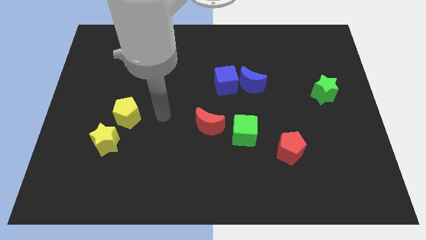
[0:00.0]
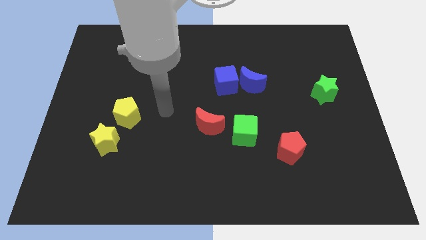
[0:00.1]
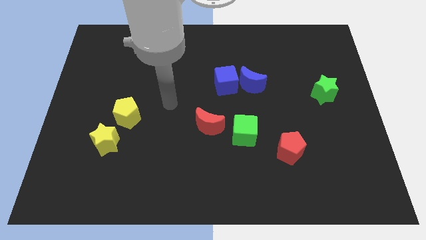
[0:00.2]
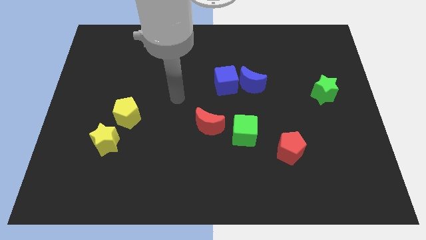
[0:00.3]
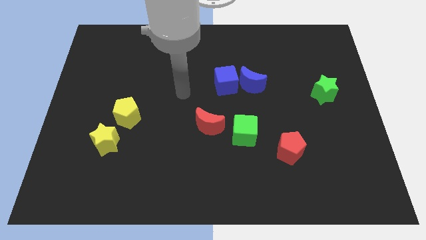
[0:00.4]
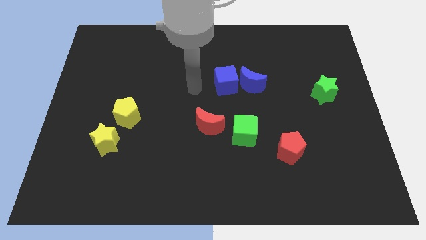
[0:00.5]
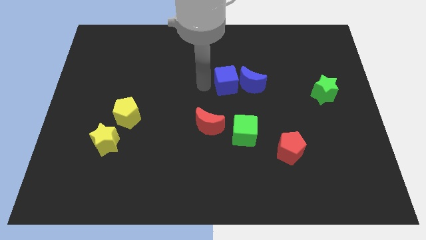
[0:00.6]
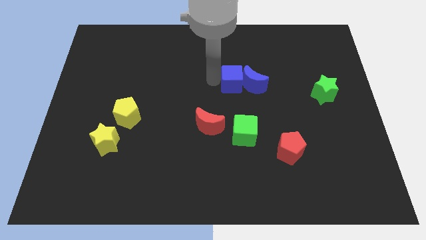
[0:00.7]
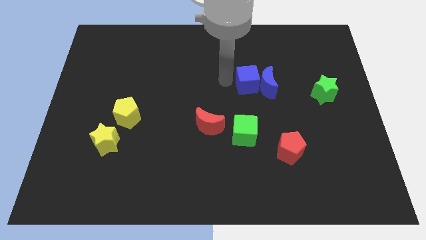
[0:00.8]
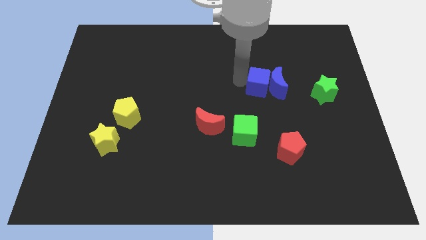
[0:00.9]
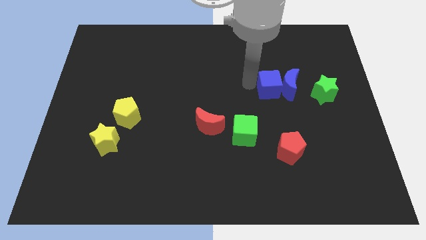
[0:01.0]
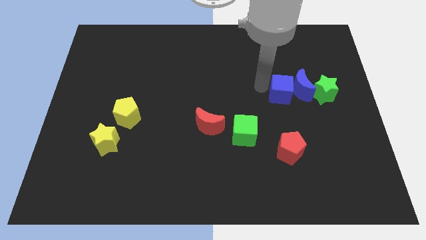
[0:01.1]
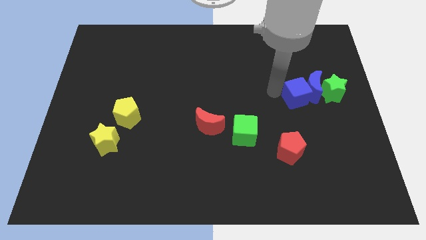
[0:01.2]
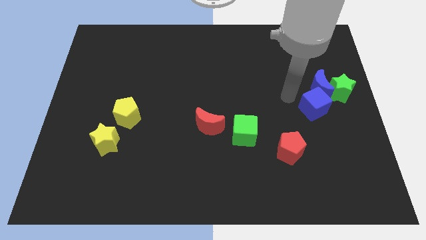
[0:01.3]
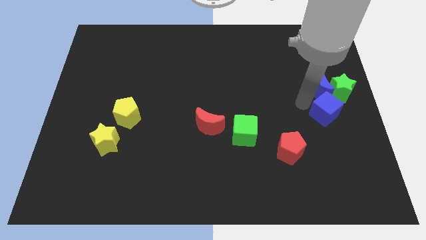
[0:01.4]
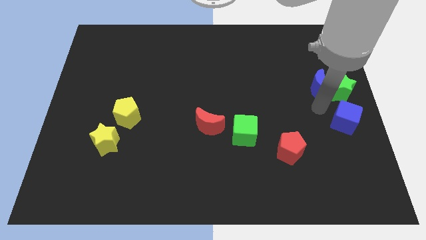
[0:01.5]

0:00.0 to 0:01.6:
separate the blue moon from the blue cube

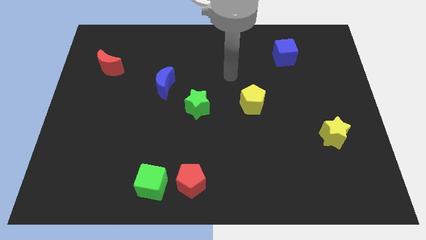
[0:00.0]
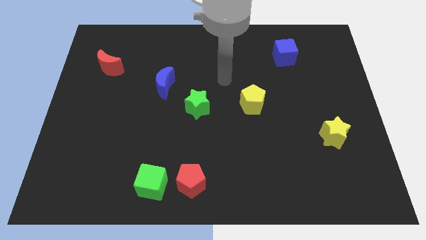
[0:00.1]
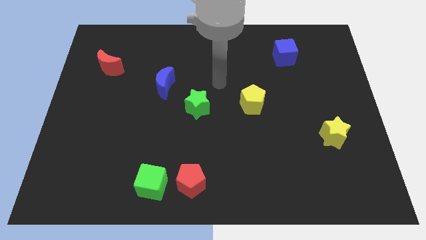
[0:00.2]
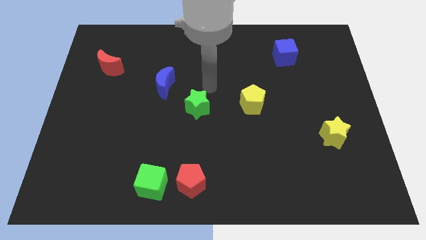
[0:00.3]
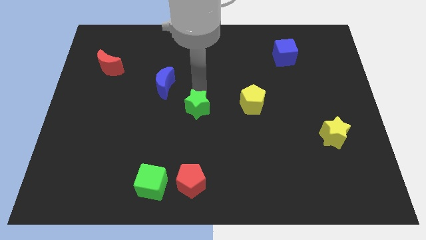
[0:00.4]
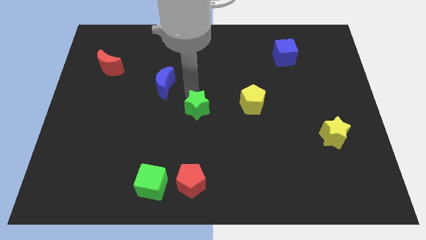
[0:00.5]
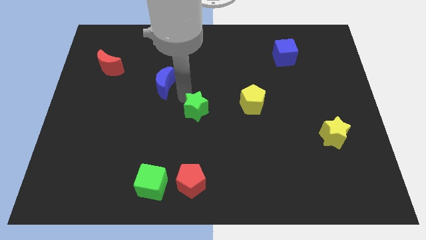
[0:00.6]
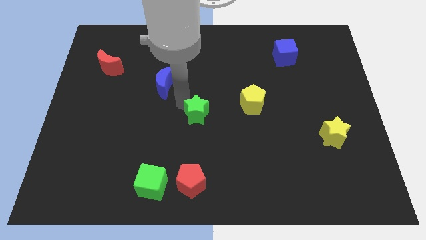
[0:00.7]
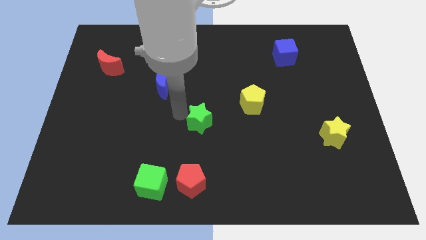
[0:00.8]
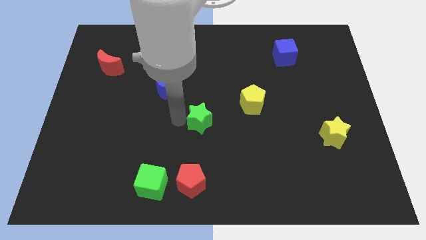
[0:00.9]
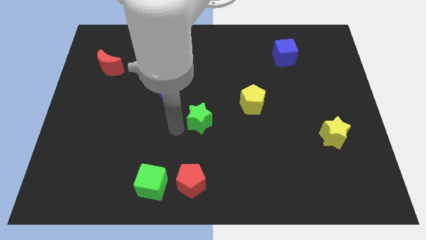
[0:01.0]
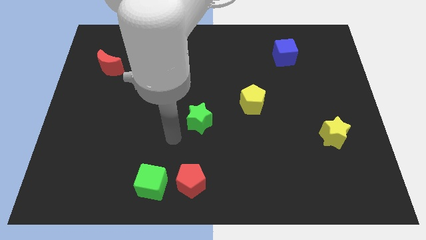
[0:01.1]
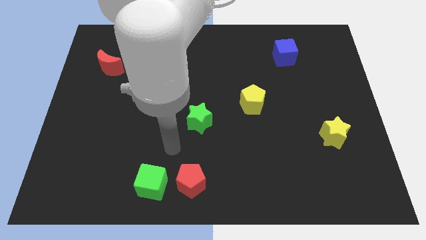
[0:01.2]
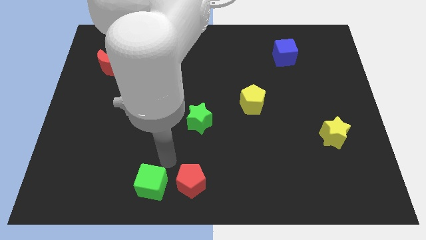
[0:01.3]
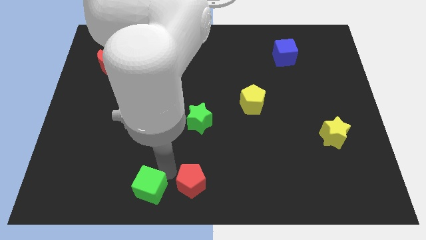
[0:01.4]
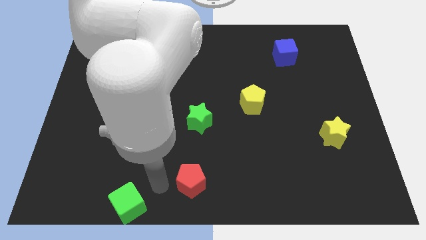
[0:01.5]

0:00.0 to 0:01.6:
pull the red pentagon apart from the green cube

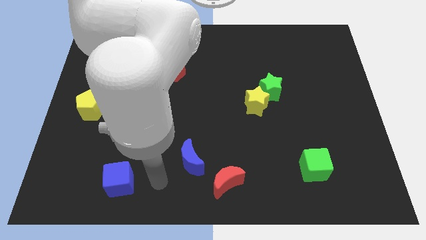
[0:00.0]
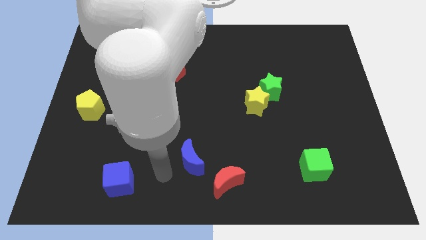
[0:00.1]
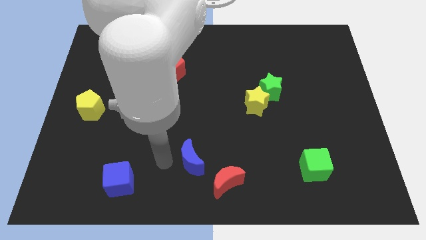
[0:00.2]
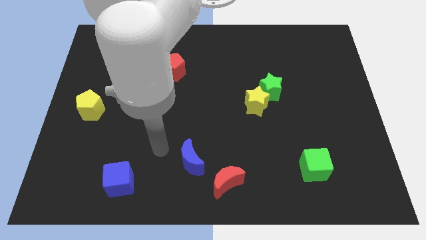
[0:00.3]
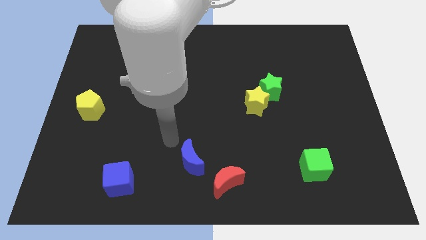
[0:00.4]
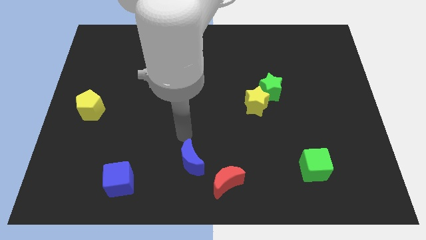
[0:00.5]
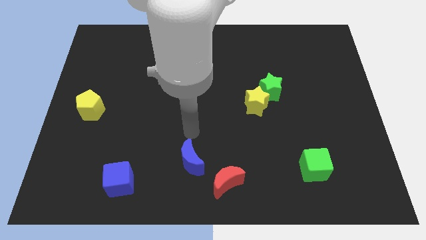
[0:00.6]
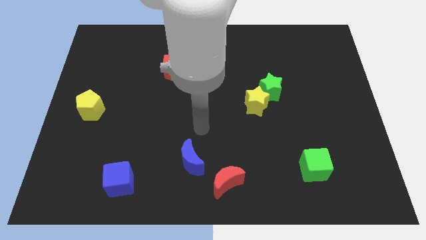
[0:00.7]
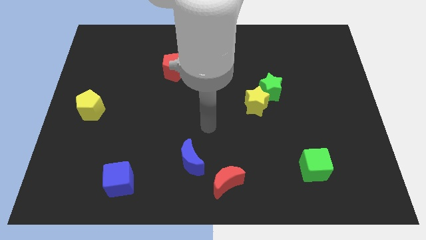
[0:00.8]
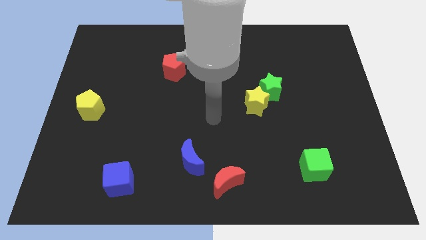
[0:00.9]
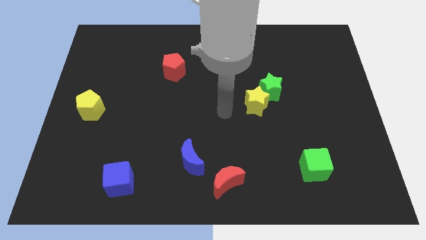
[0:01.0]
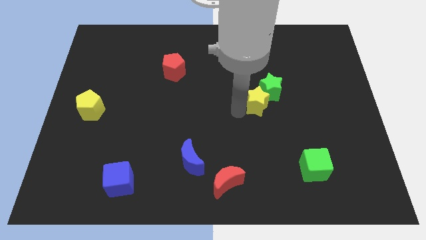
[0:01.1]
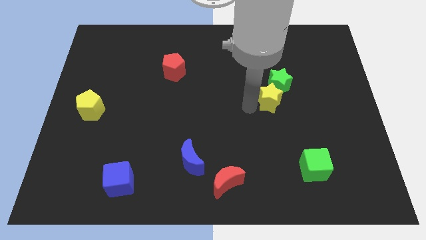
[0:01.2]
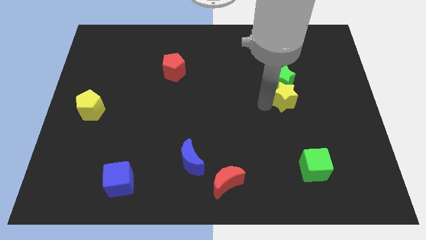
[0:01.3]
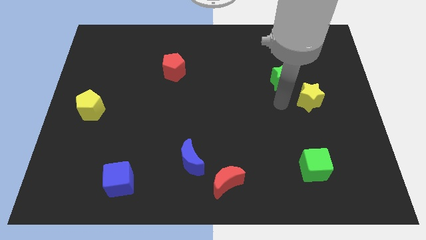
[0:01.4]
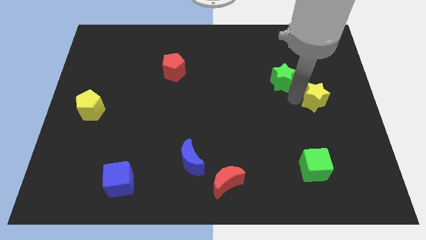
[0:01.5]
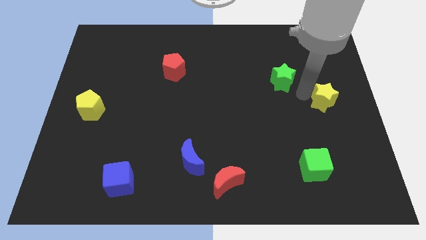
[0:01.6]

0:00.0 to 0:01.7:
pull the green star apart from the yellow star

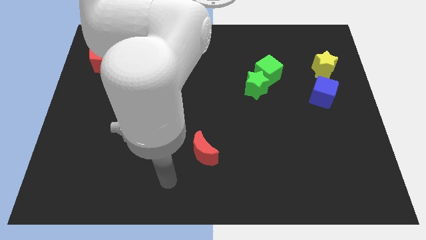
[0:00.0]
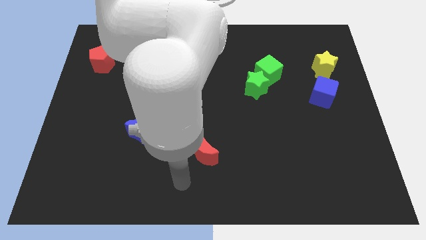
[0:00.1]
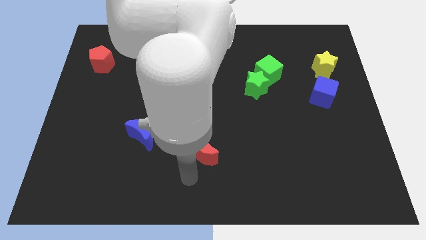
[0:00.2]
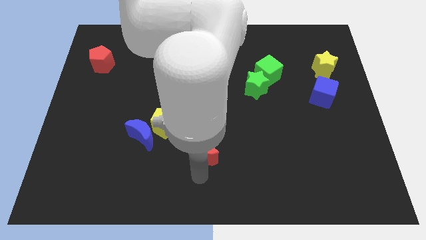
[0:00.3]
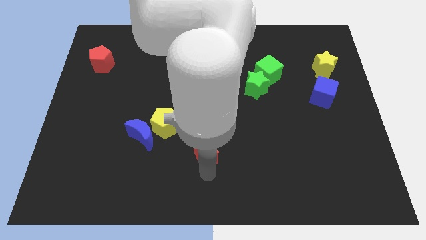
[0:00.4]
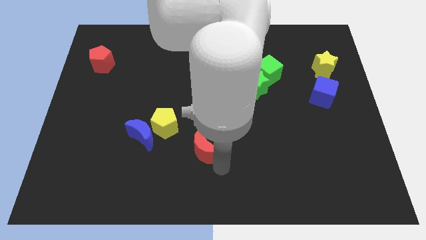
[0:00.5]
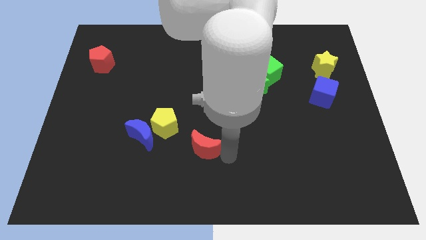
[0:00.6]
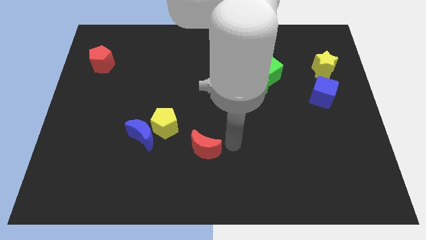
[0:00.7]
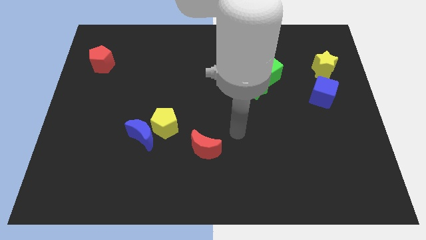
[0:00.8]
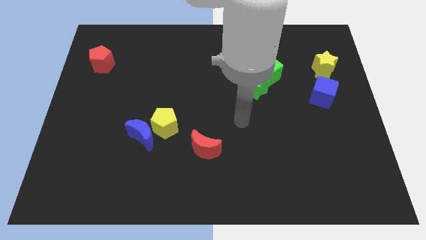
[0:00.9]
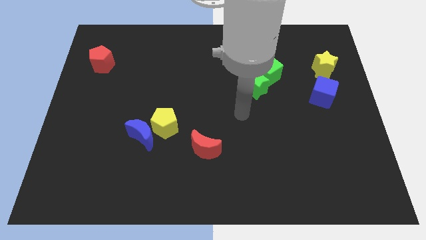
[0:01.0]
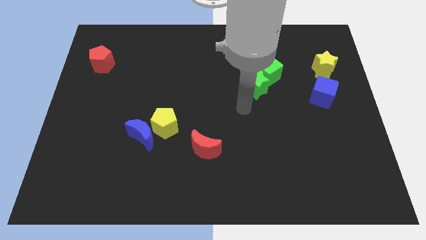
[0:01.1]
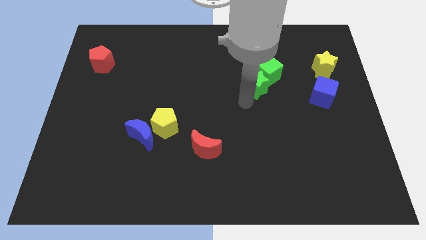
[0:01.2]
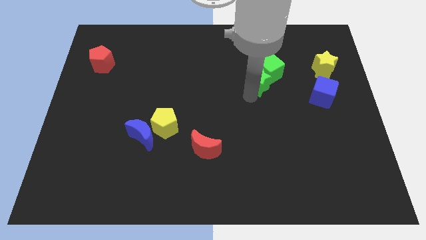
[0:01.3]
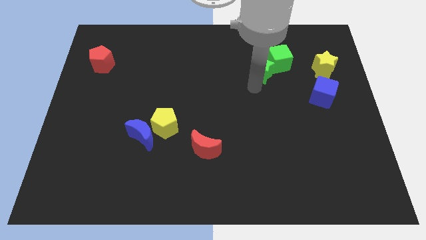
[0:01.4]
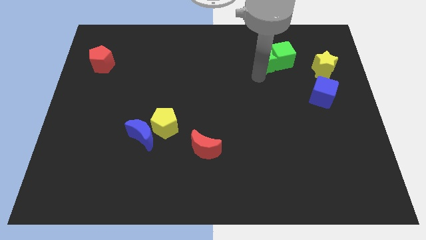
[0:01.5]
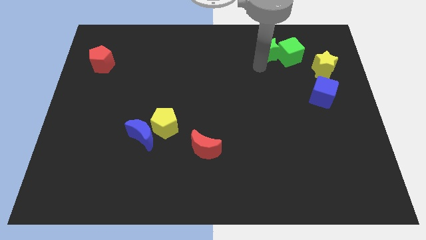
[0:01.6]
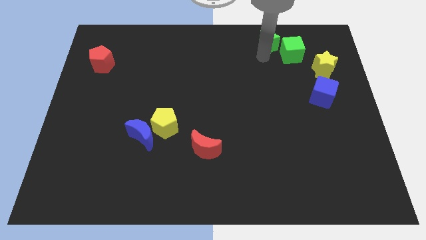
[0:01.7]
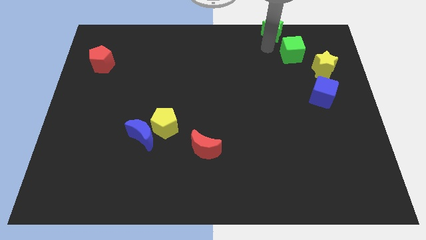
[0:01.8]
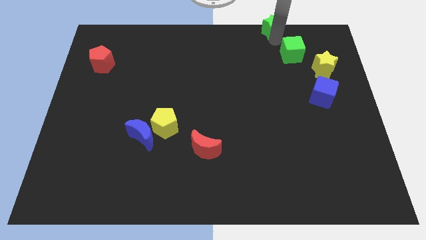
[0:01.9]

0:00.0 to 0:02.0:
move the green cube away from the green star

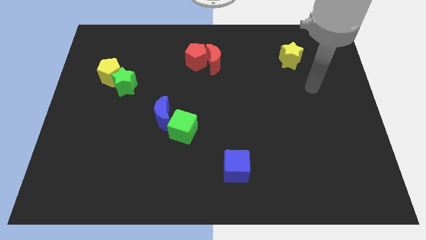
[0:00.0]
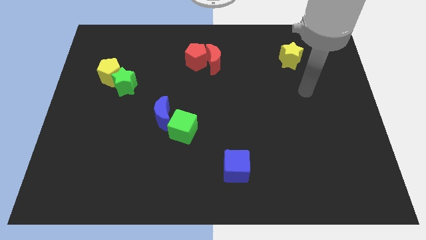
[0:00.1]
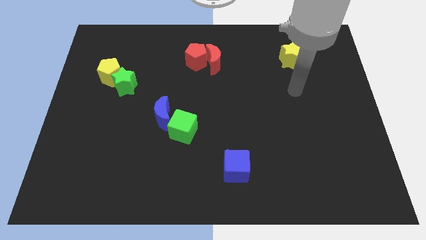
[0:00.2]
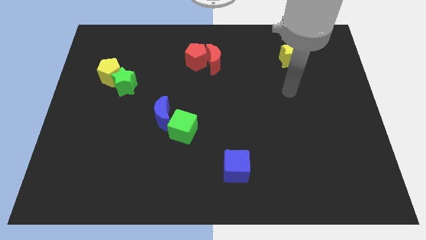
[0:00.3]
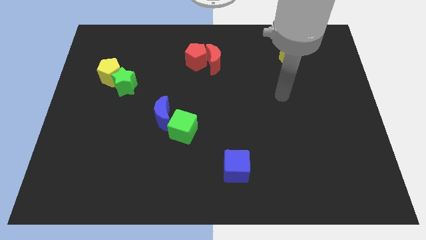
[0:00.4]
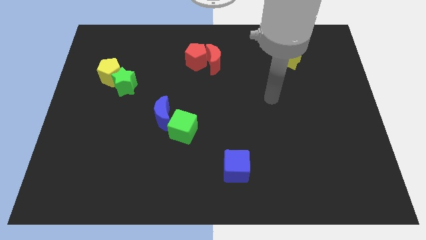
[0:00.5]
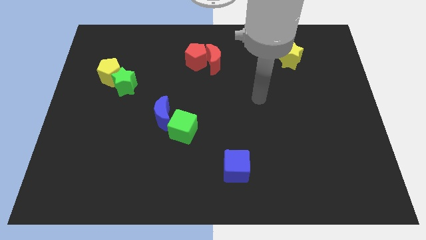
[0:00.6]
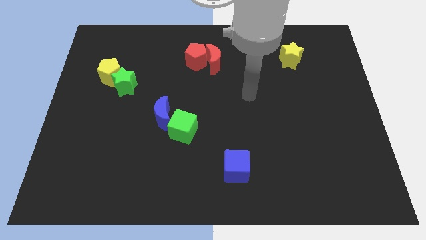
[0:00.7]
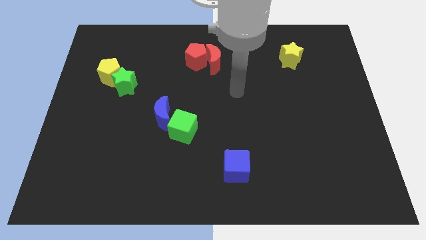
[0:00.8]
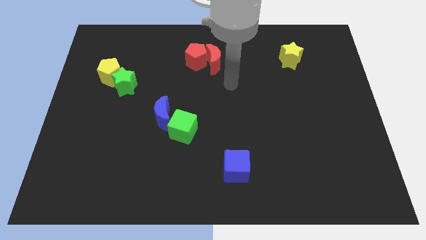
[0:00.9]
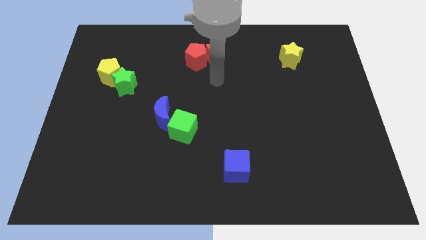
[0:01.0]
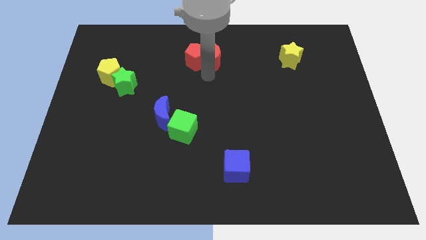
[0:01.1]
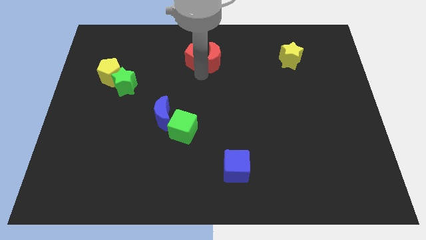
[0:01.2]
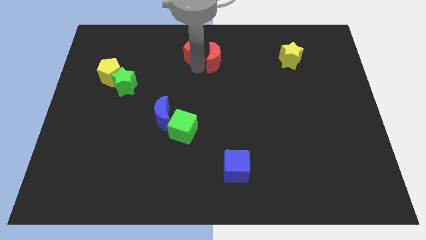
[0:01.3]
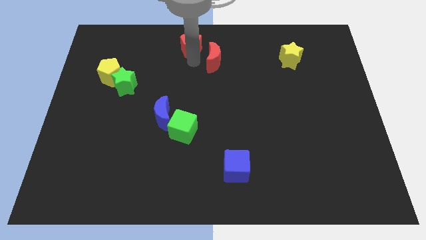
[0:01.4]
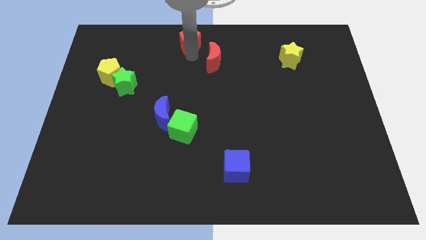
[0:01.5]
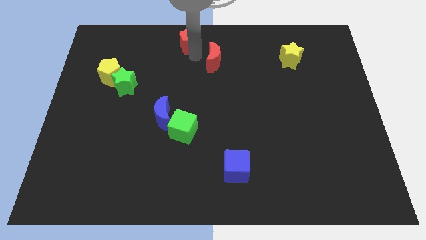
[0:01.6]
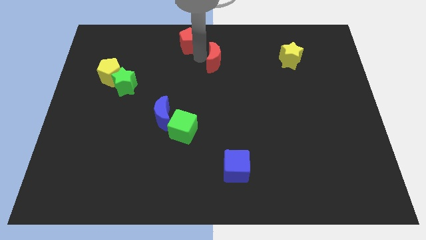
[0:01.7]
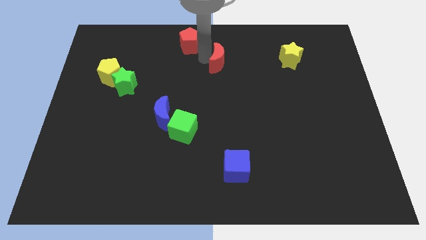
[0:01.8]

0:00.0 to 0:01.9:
pull the red moon apart from the red pentagon

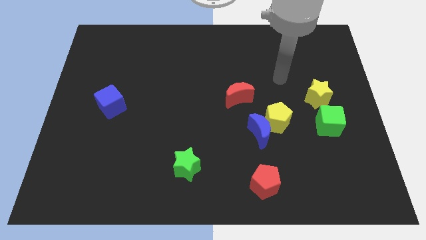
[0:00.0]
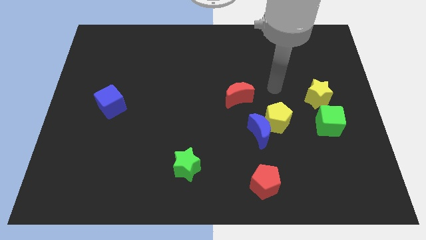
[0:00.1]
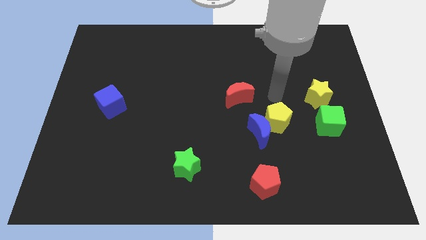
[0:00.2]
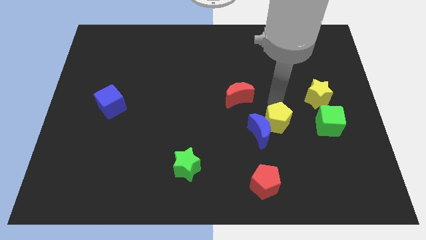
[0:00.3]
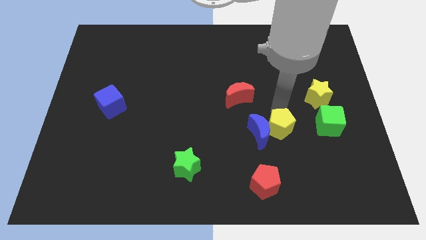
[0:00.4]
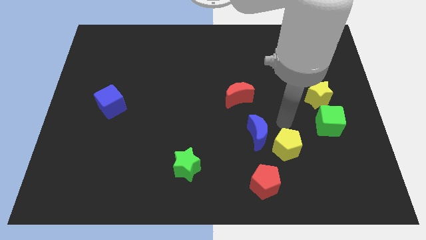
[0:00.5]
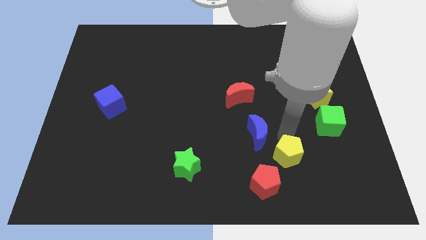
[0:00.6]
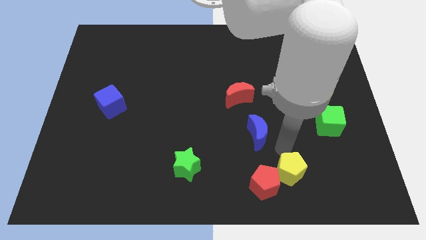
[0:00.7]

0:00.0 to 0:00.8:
separate the blue moon from the yellow pentagon
